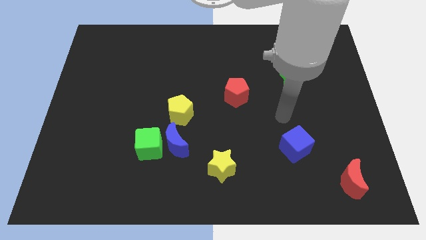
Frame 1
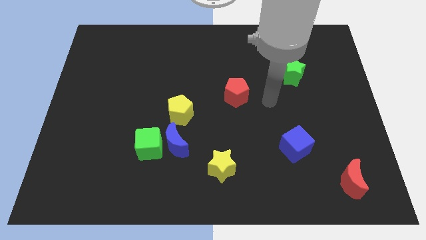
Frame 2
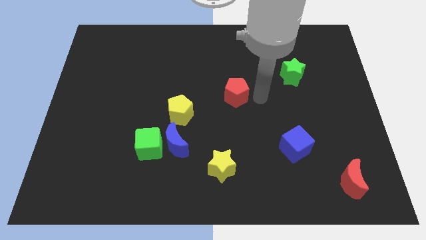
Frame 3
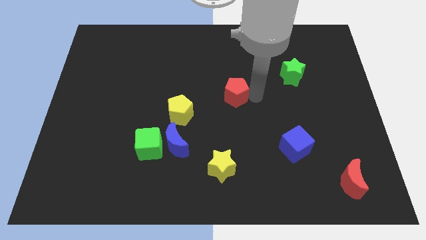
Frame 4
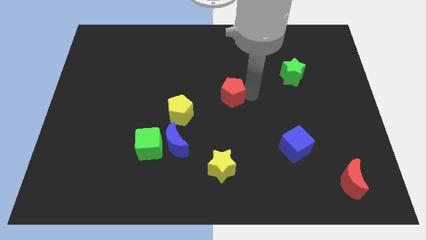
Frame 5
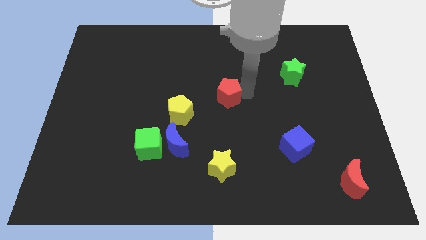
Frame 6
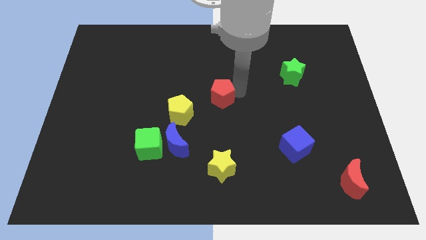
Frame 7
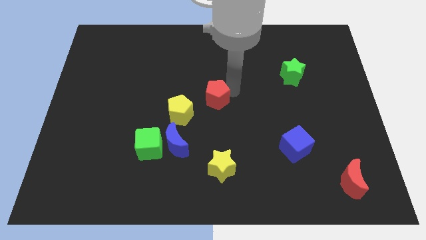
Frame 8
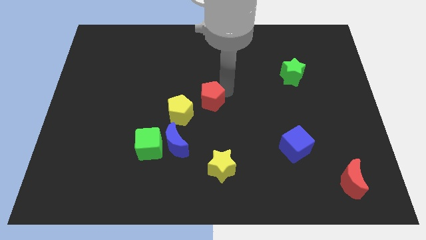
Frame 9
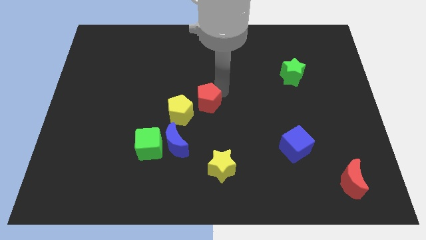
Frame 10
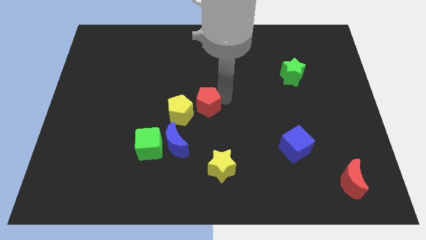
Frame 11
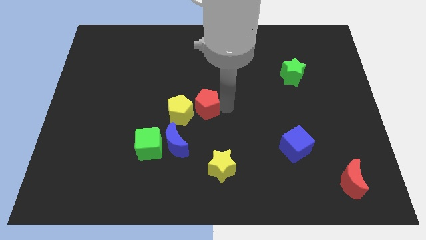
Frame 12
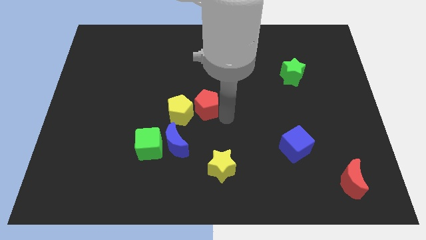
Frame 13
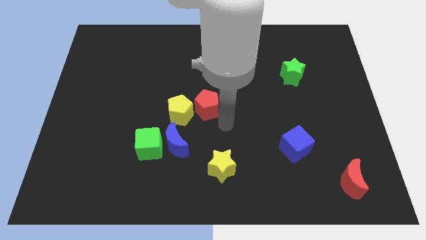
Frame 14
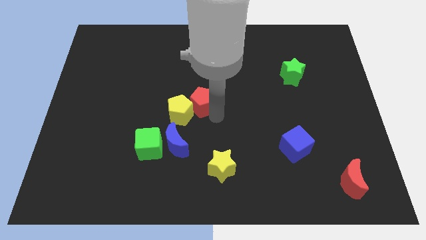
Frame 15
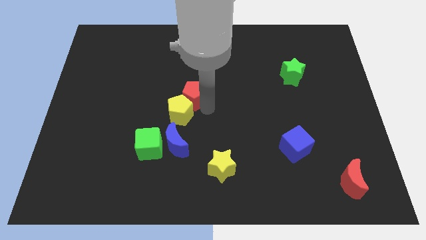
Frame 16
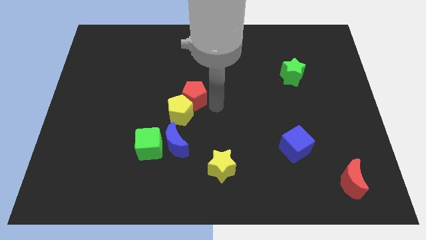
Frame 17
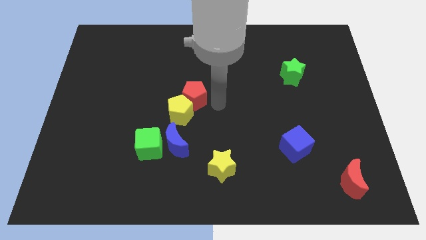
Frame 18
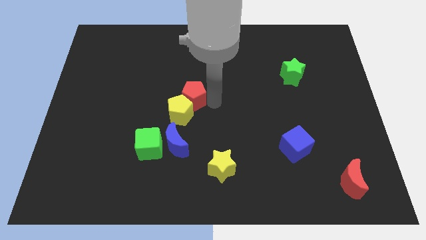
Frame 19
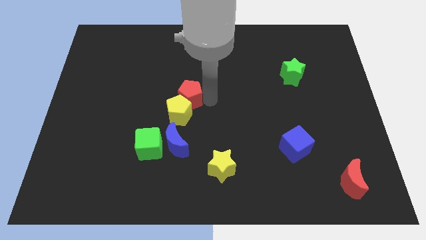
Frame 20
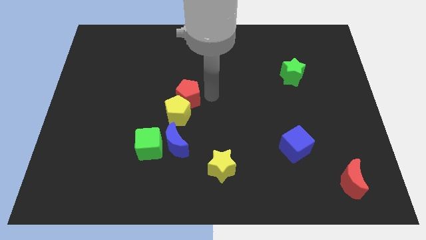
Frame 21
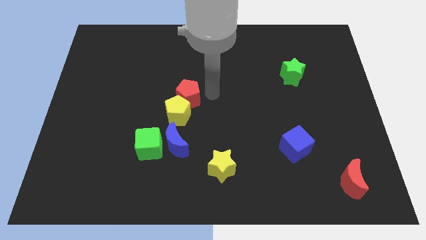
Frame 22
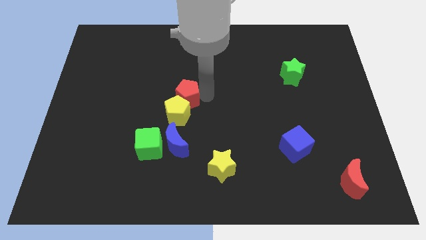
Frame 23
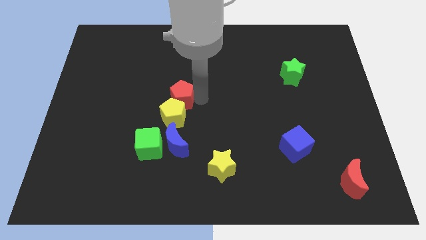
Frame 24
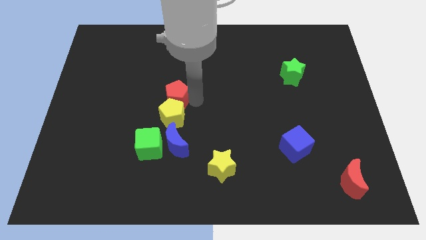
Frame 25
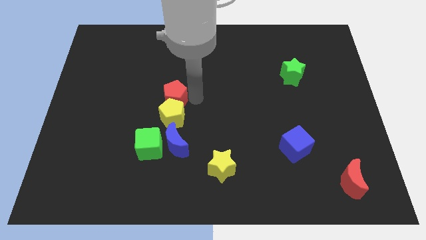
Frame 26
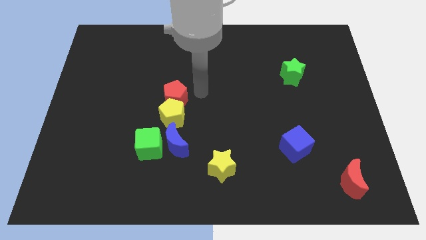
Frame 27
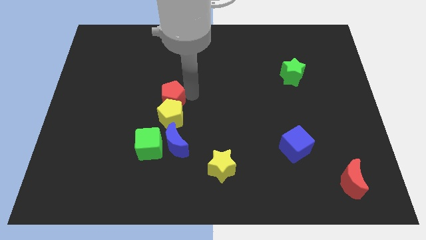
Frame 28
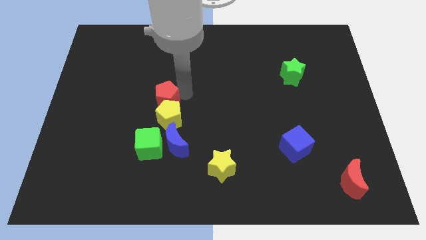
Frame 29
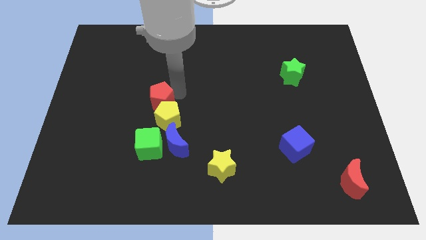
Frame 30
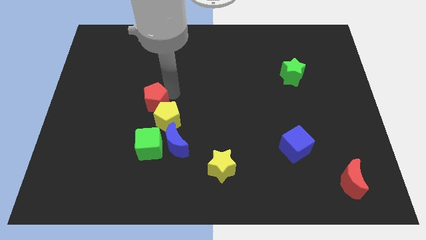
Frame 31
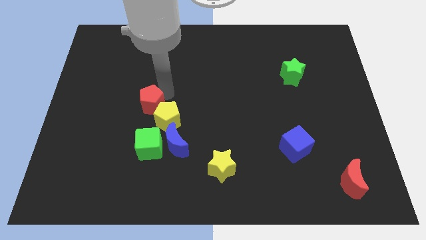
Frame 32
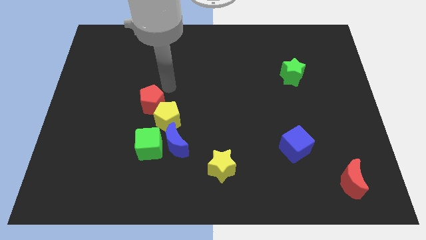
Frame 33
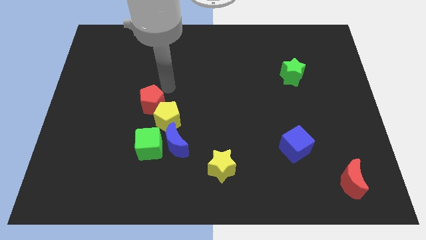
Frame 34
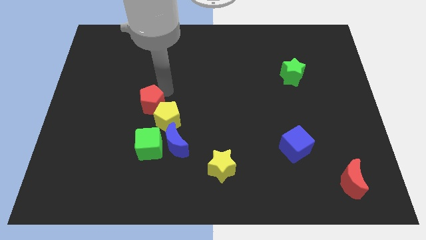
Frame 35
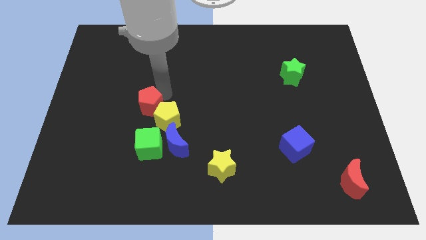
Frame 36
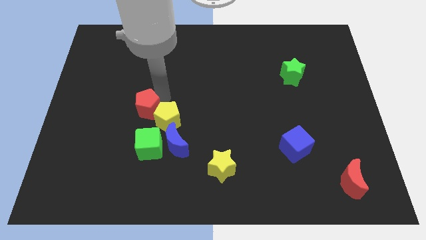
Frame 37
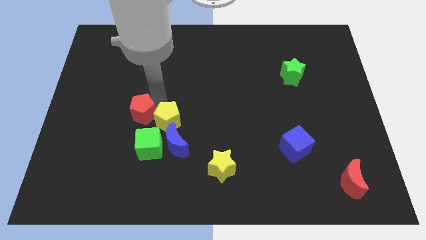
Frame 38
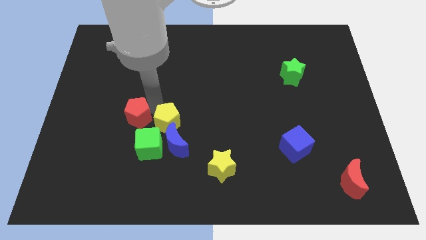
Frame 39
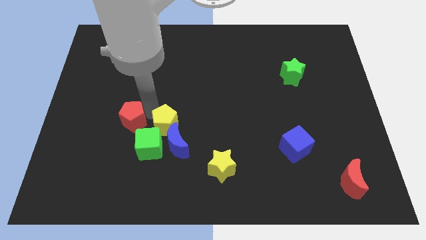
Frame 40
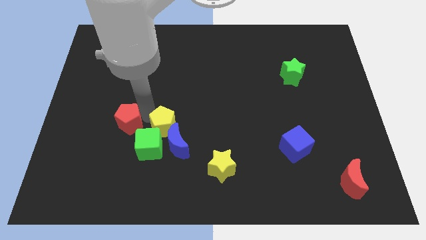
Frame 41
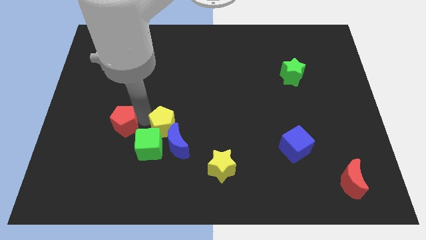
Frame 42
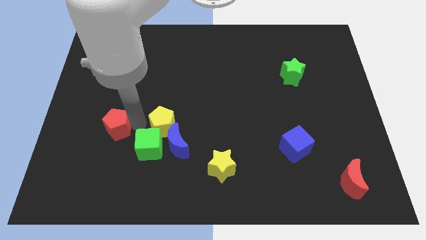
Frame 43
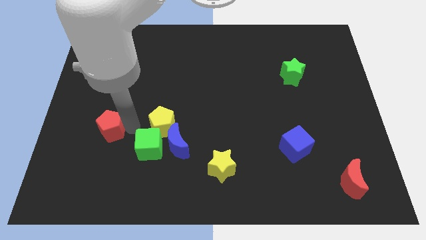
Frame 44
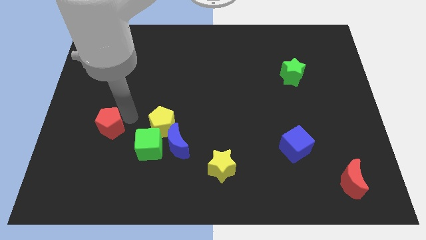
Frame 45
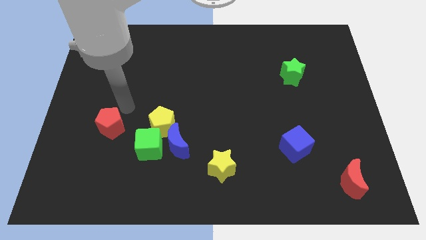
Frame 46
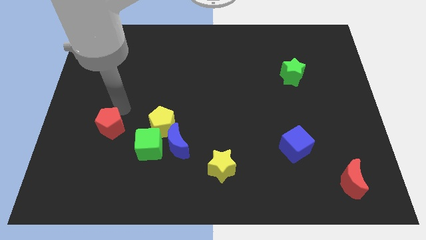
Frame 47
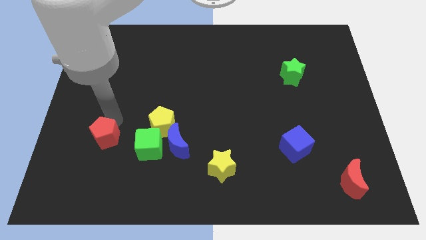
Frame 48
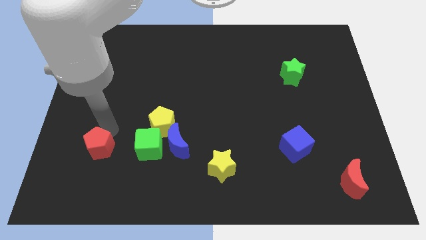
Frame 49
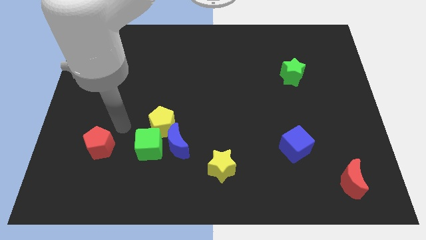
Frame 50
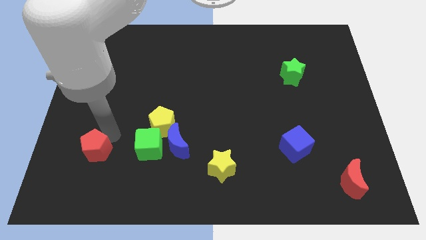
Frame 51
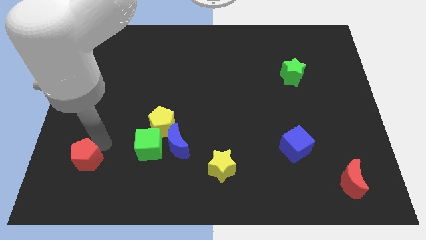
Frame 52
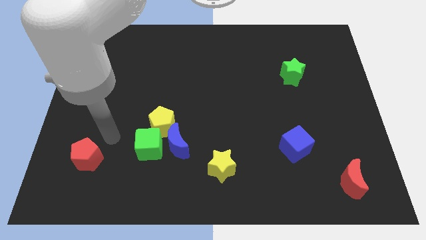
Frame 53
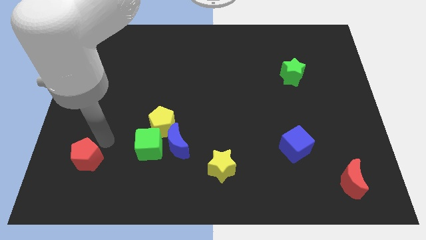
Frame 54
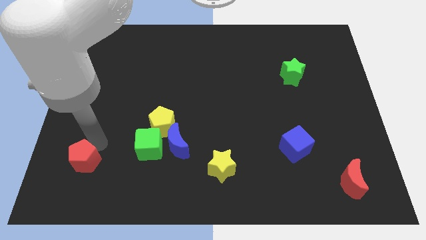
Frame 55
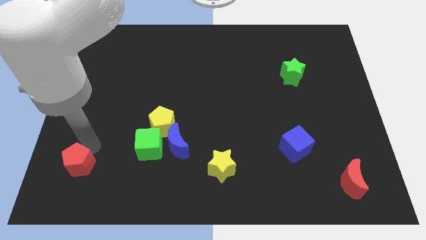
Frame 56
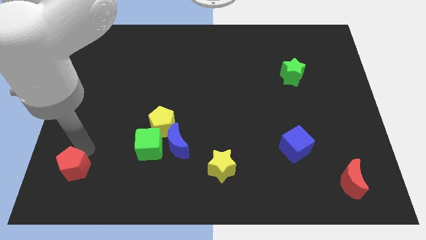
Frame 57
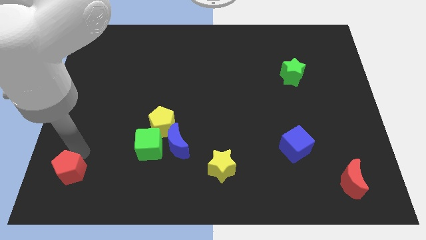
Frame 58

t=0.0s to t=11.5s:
slide the red pentagon to the bottom left
